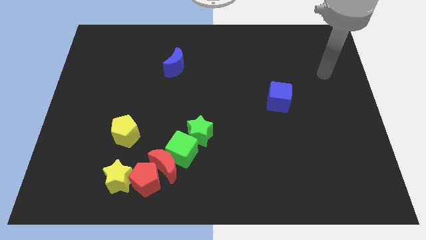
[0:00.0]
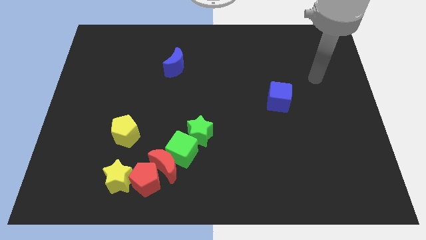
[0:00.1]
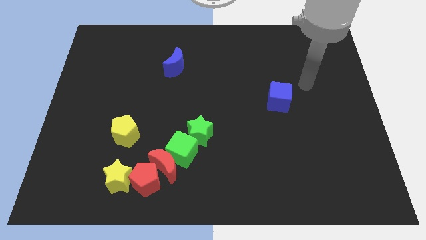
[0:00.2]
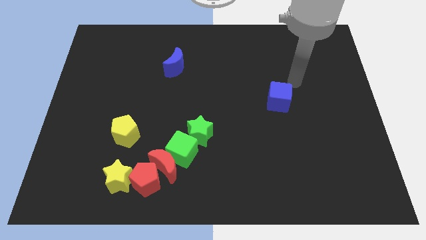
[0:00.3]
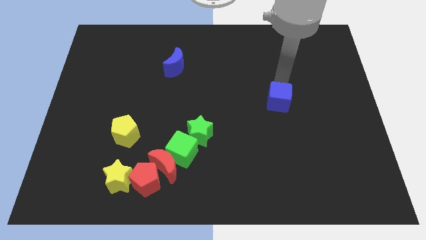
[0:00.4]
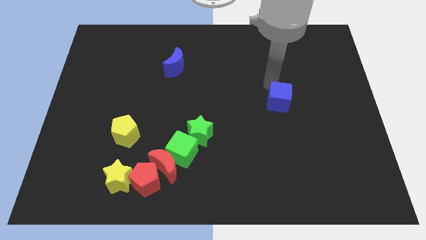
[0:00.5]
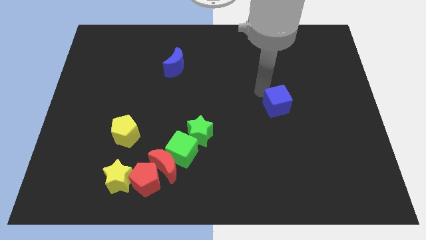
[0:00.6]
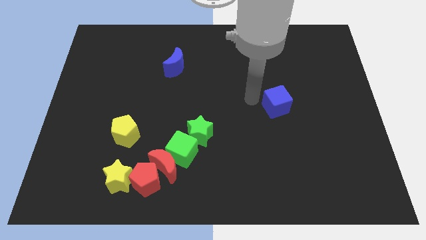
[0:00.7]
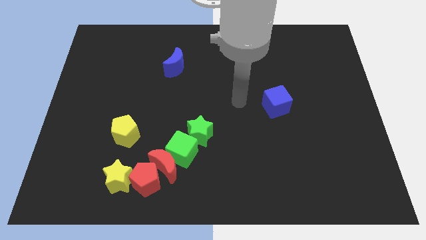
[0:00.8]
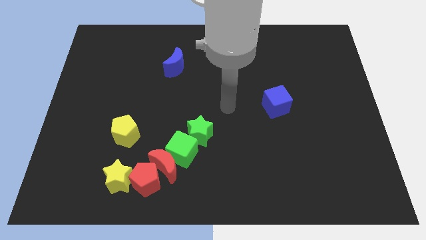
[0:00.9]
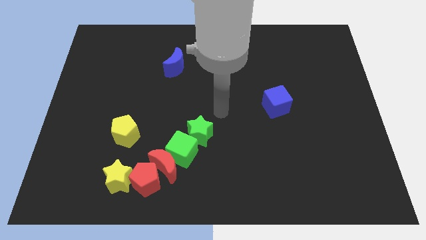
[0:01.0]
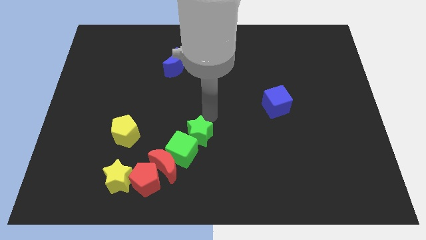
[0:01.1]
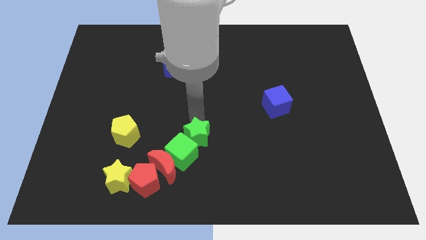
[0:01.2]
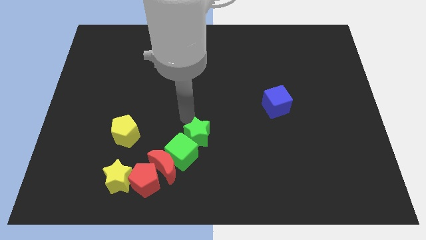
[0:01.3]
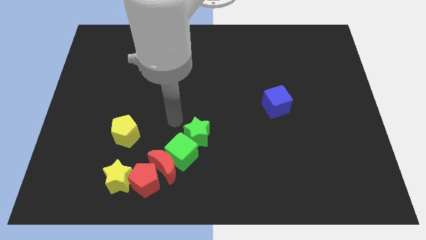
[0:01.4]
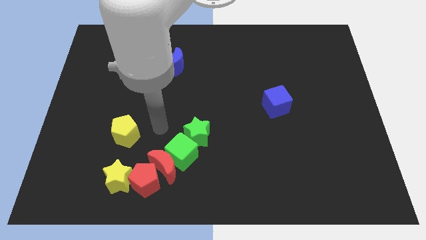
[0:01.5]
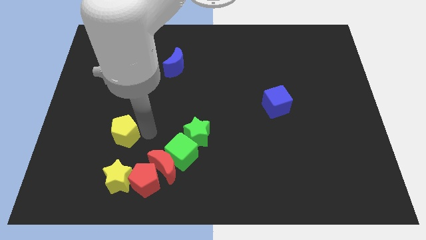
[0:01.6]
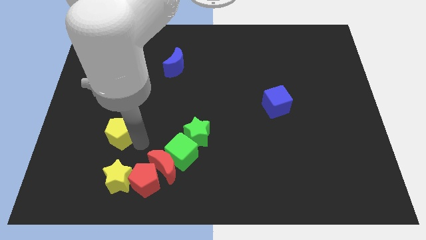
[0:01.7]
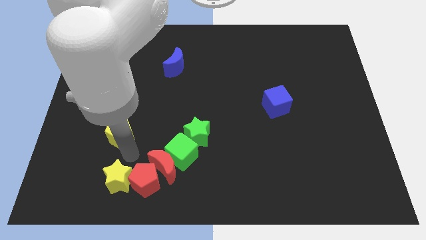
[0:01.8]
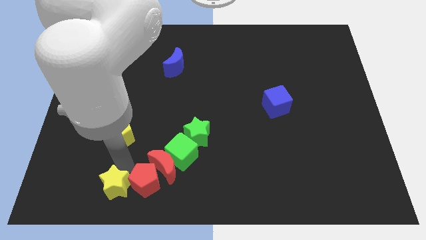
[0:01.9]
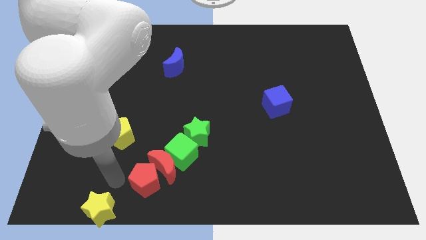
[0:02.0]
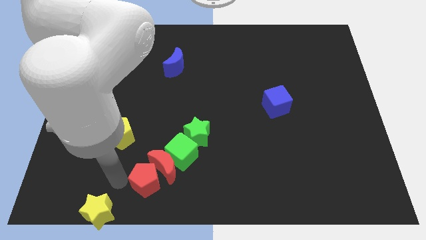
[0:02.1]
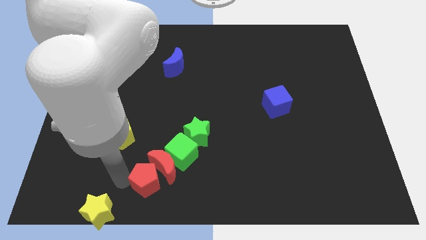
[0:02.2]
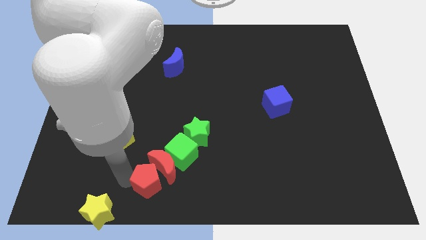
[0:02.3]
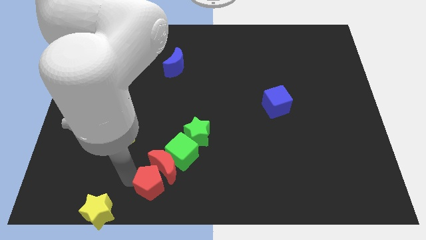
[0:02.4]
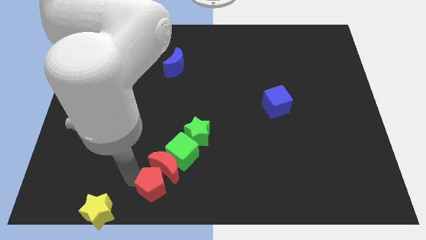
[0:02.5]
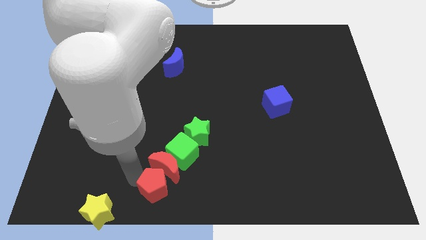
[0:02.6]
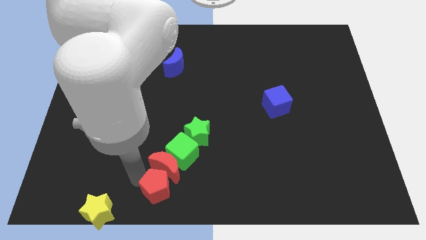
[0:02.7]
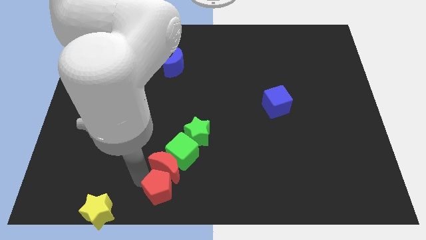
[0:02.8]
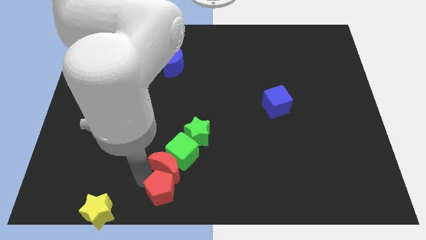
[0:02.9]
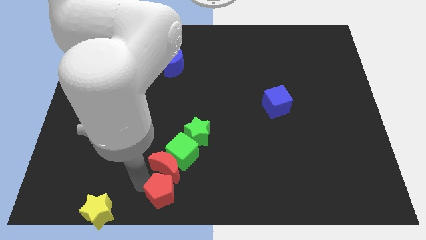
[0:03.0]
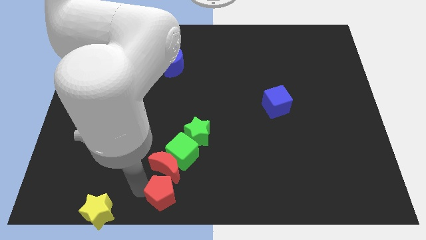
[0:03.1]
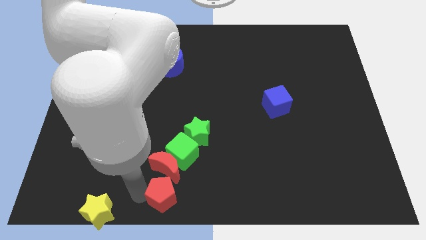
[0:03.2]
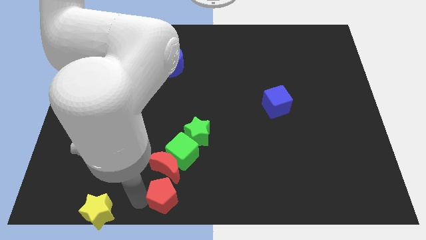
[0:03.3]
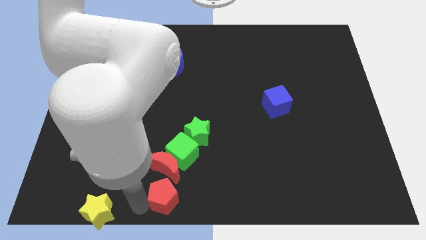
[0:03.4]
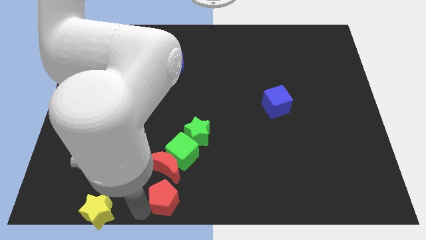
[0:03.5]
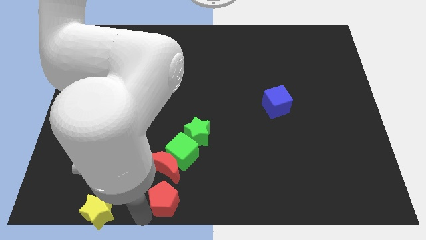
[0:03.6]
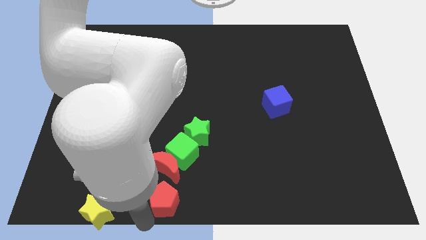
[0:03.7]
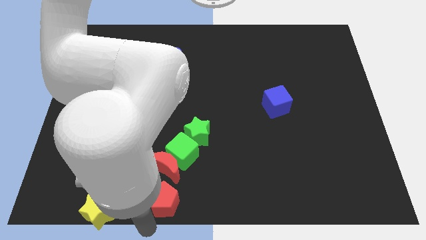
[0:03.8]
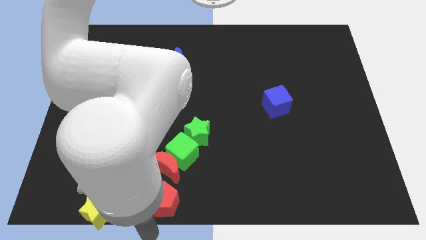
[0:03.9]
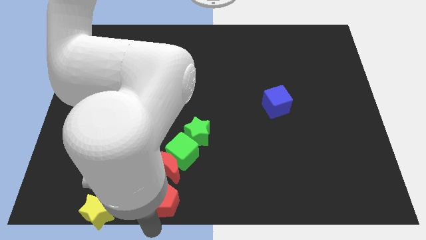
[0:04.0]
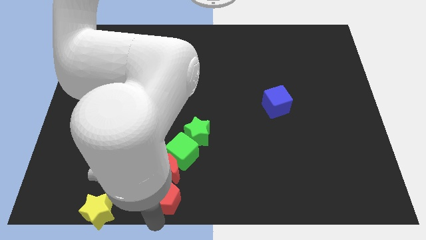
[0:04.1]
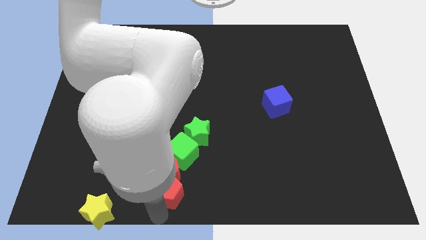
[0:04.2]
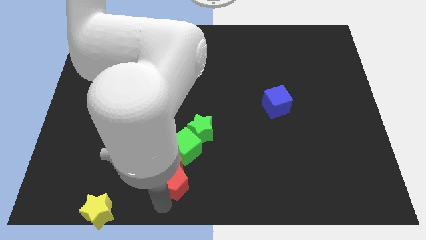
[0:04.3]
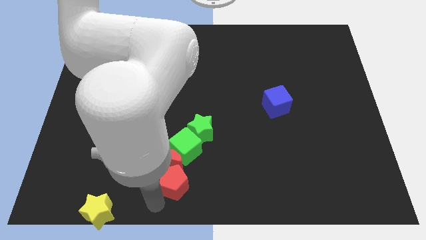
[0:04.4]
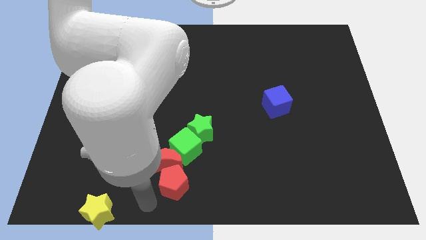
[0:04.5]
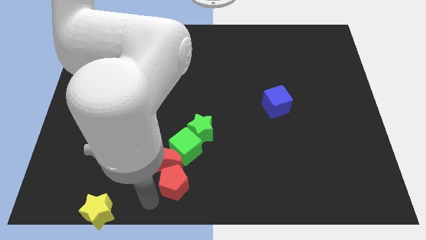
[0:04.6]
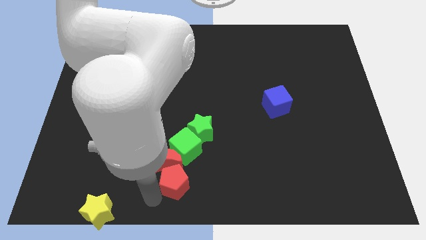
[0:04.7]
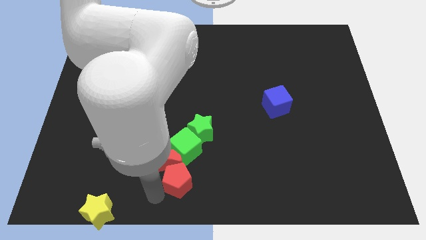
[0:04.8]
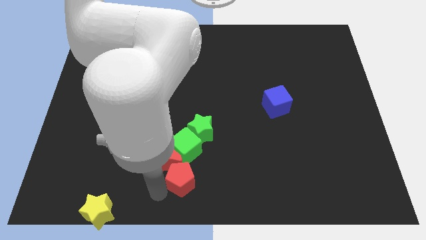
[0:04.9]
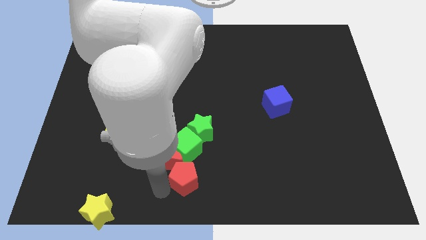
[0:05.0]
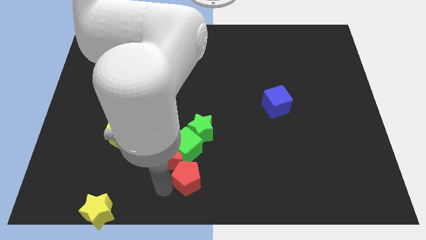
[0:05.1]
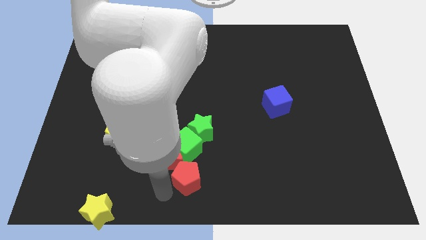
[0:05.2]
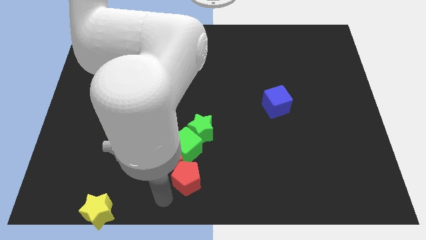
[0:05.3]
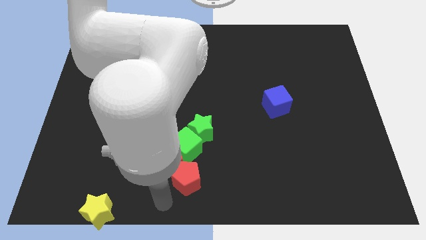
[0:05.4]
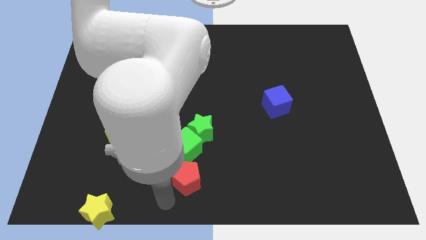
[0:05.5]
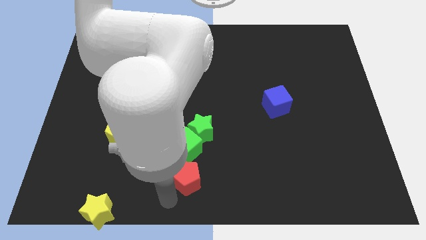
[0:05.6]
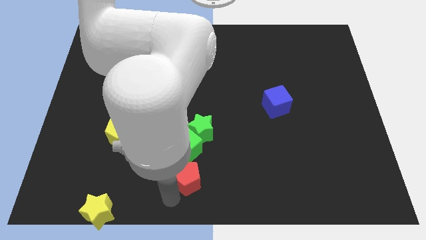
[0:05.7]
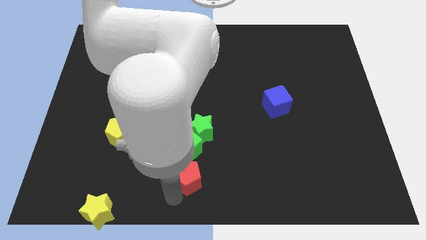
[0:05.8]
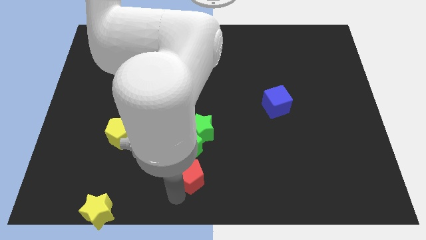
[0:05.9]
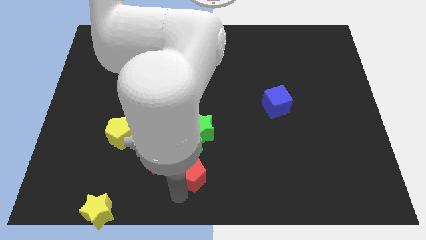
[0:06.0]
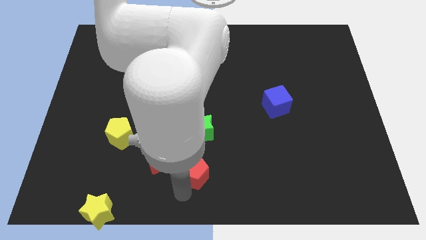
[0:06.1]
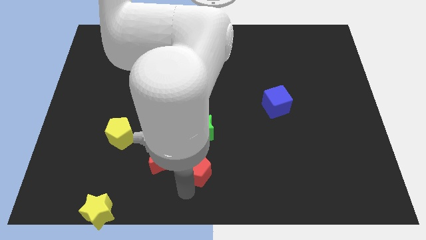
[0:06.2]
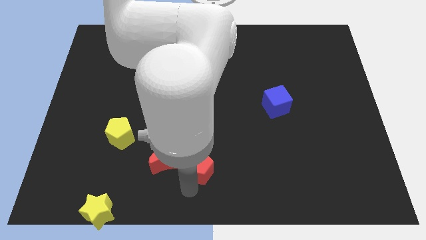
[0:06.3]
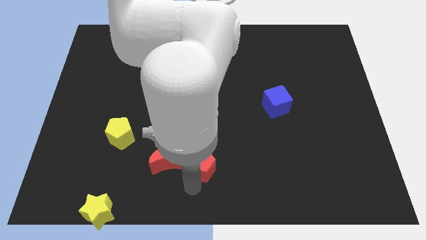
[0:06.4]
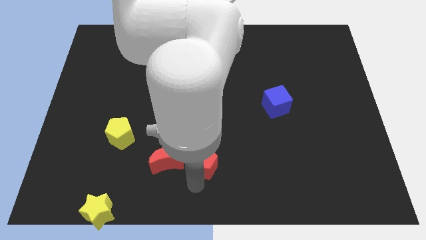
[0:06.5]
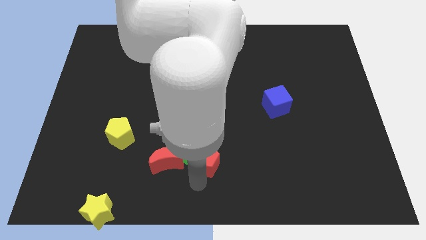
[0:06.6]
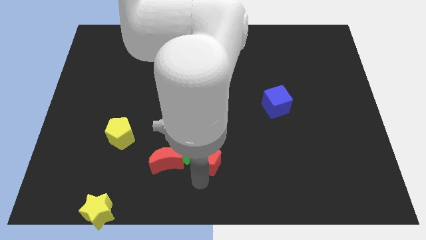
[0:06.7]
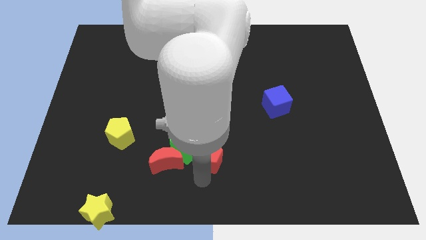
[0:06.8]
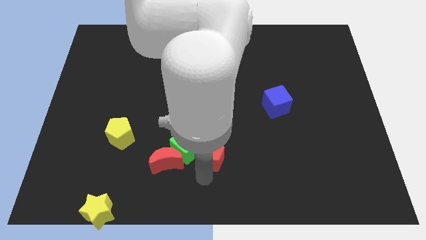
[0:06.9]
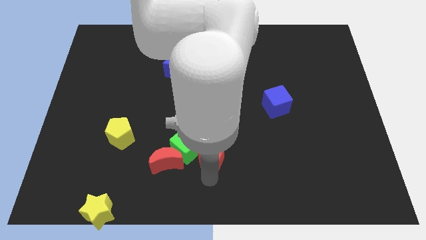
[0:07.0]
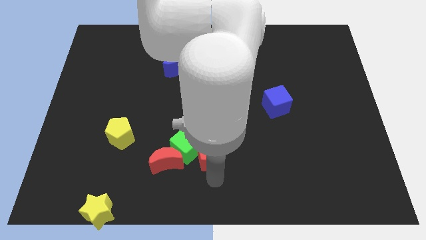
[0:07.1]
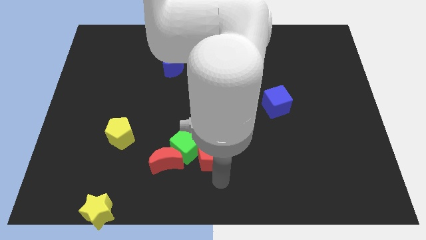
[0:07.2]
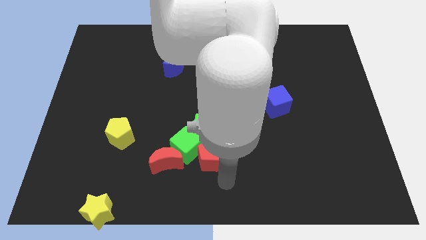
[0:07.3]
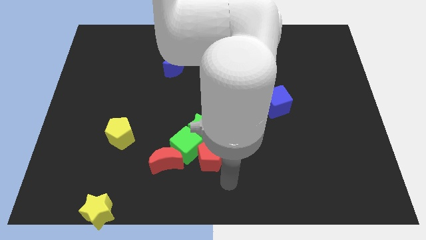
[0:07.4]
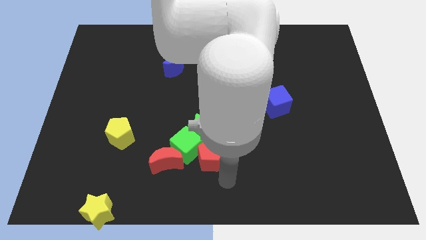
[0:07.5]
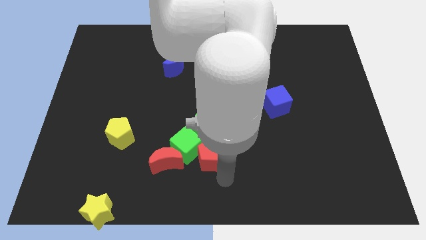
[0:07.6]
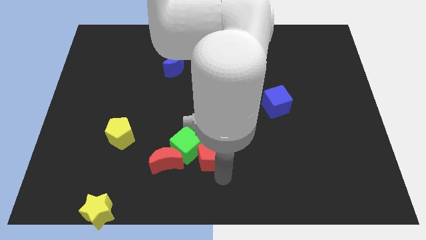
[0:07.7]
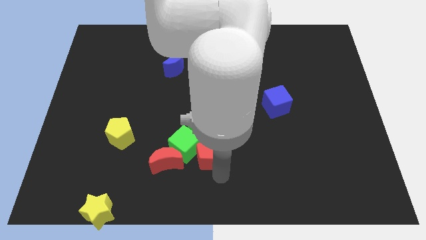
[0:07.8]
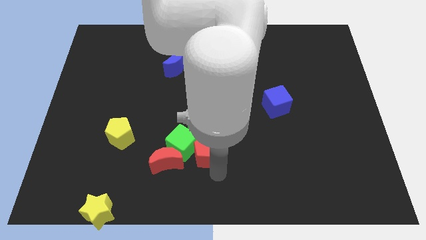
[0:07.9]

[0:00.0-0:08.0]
move the red pentagon to the green star
